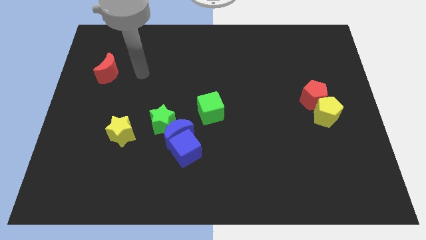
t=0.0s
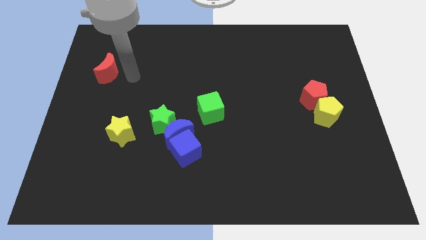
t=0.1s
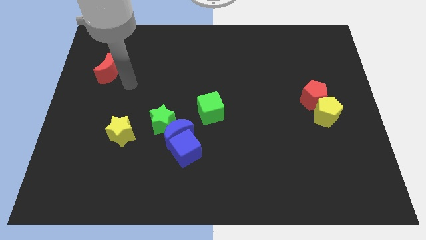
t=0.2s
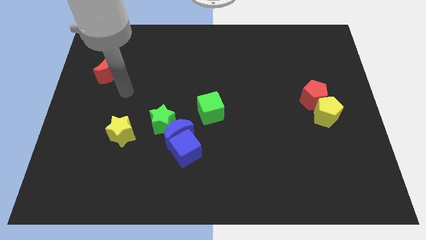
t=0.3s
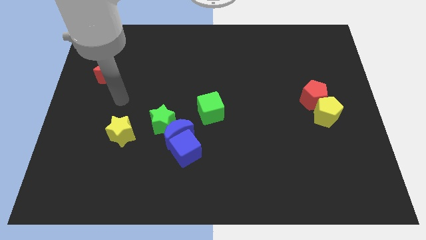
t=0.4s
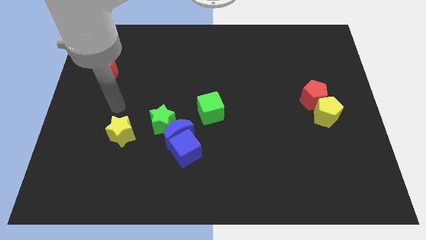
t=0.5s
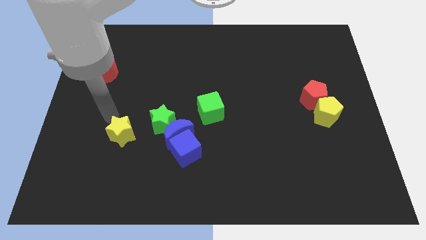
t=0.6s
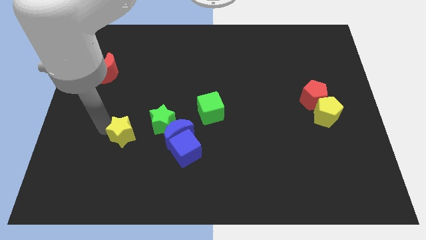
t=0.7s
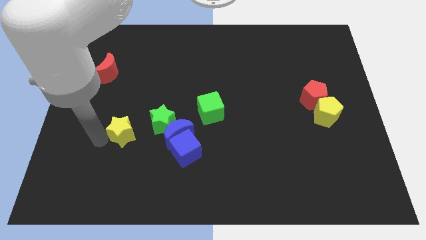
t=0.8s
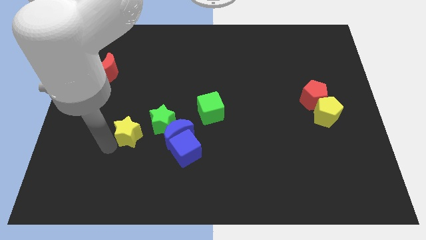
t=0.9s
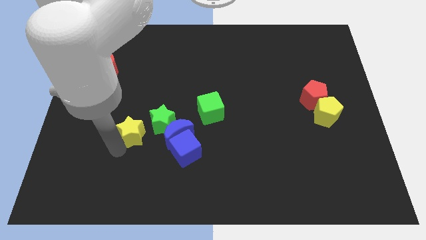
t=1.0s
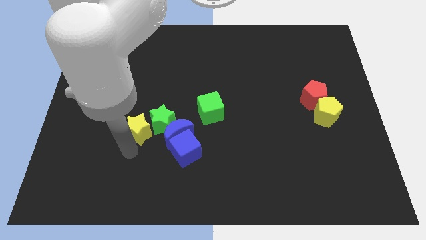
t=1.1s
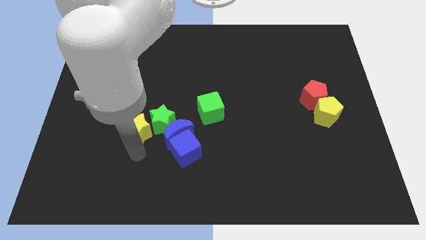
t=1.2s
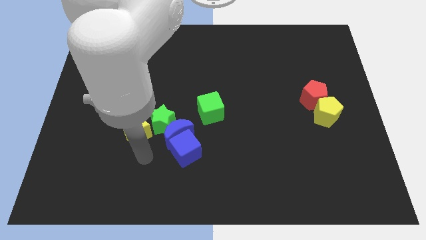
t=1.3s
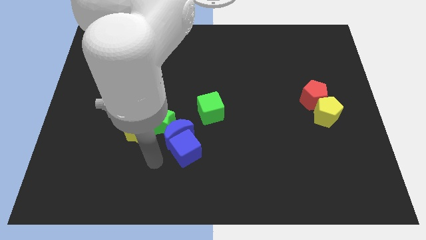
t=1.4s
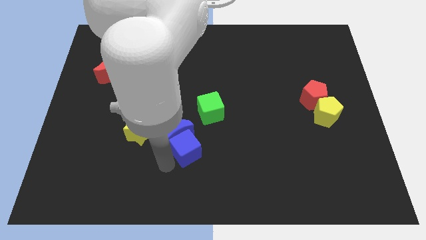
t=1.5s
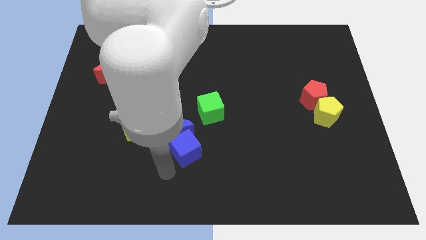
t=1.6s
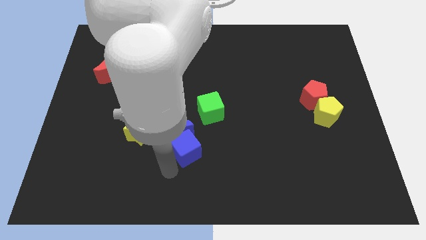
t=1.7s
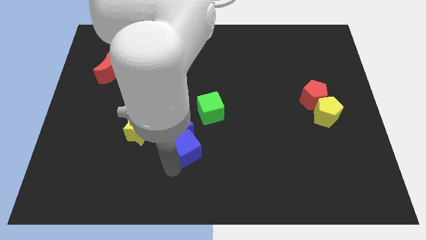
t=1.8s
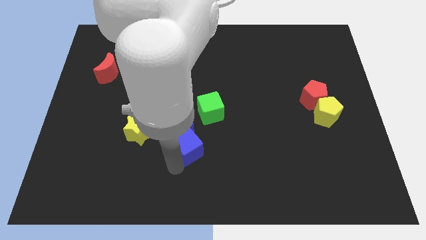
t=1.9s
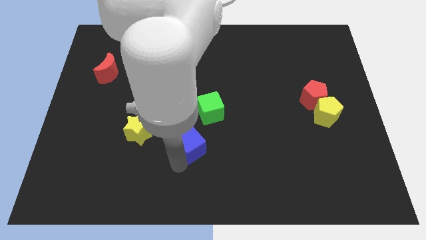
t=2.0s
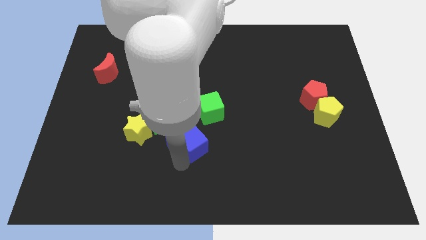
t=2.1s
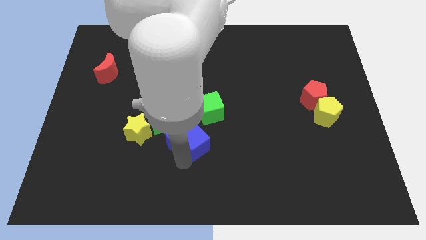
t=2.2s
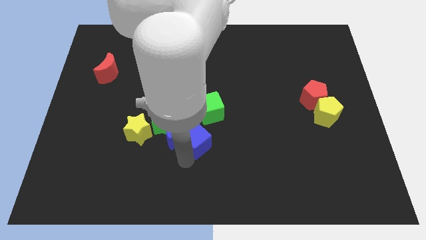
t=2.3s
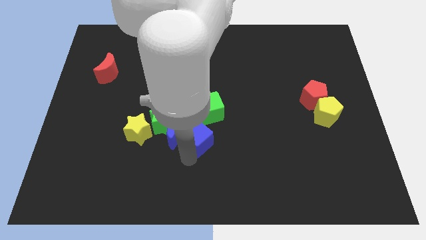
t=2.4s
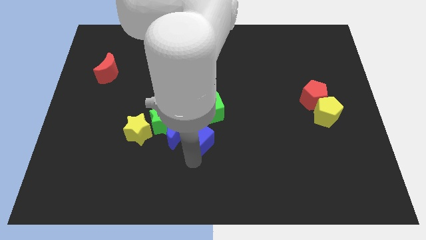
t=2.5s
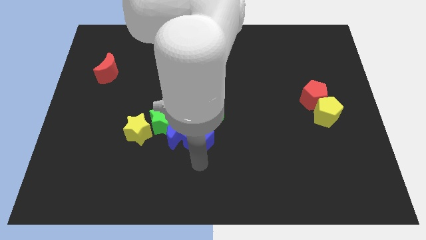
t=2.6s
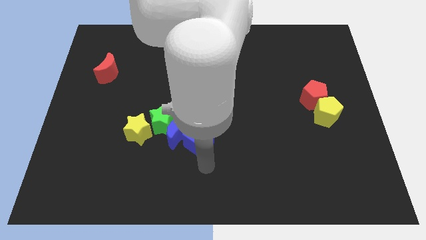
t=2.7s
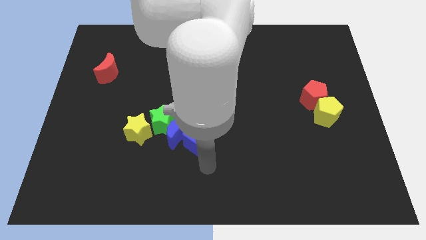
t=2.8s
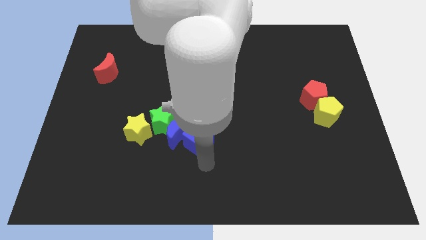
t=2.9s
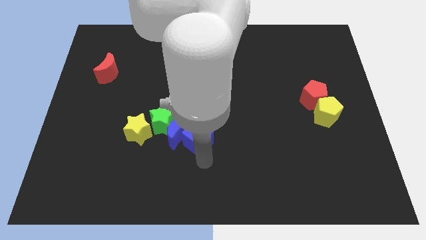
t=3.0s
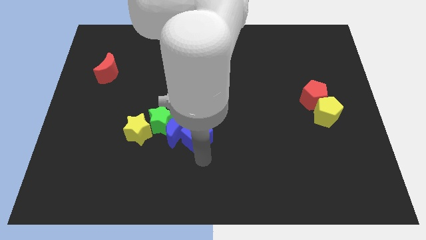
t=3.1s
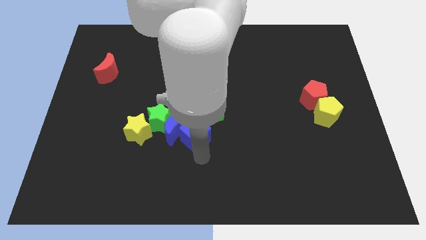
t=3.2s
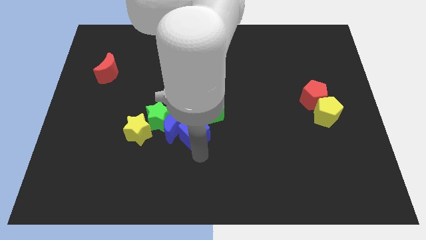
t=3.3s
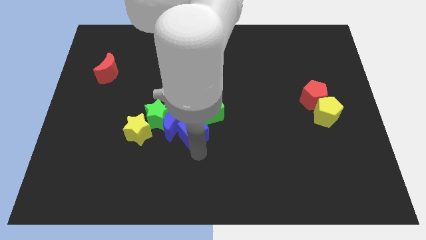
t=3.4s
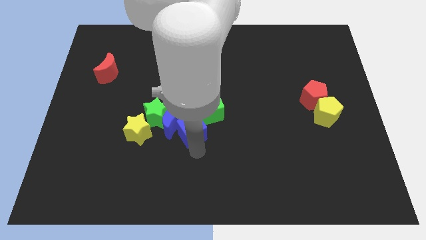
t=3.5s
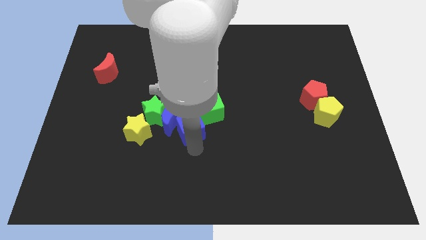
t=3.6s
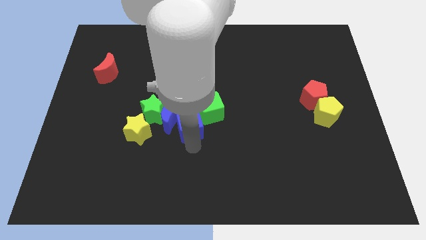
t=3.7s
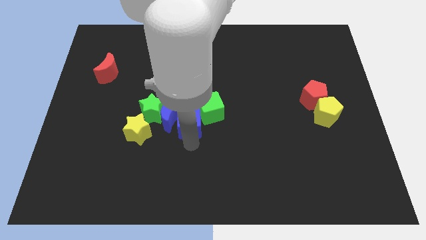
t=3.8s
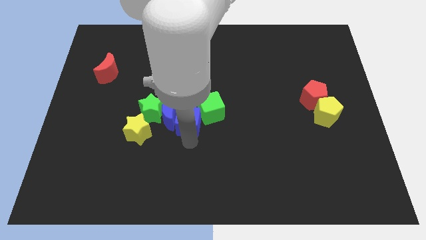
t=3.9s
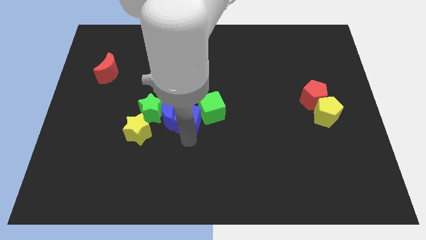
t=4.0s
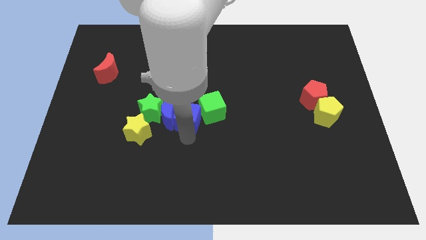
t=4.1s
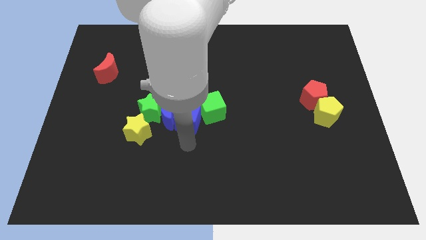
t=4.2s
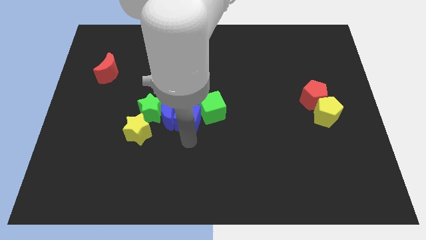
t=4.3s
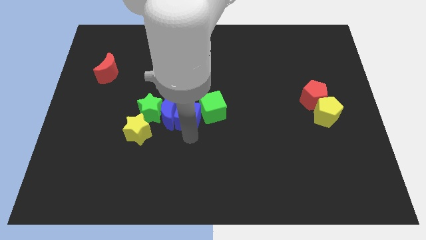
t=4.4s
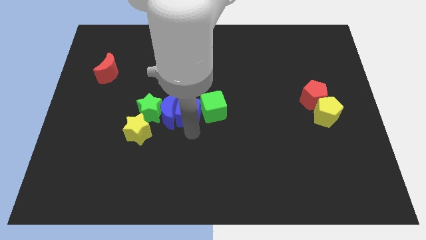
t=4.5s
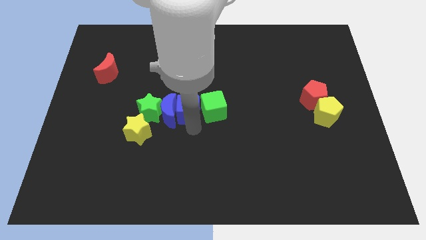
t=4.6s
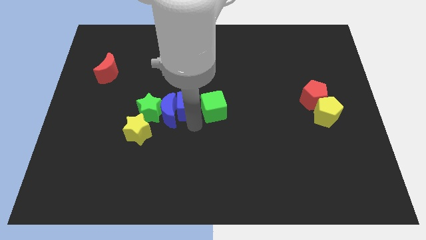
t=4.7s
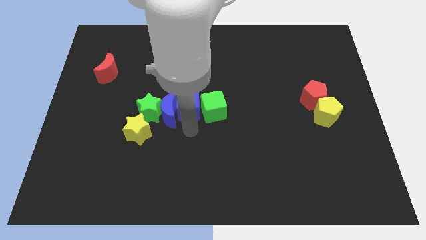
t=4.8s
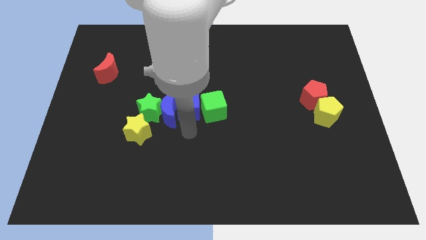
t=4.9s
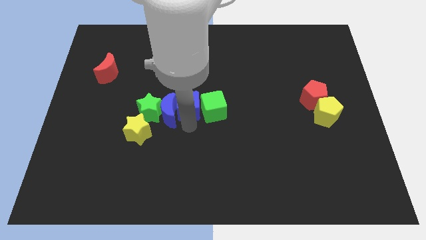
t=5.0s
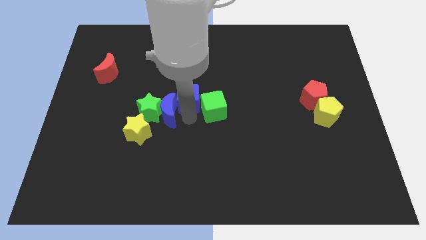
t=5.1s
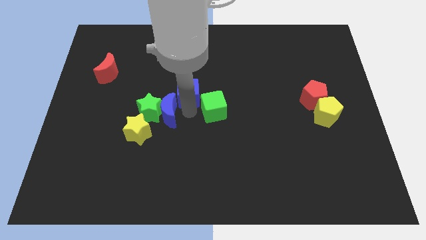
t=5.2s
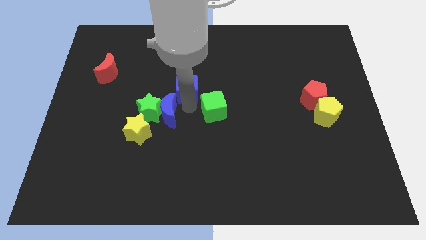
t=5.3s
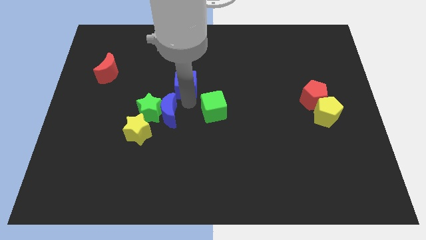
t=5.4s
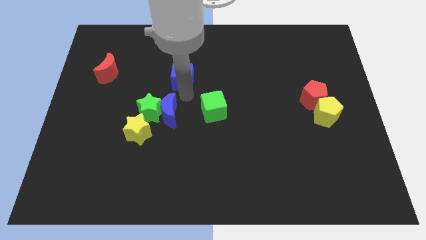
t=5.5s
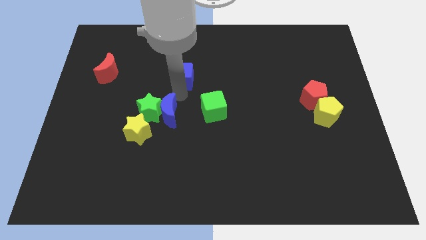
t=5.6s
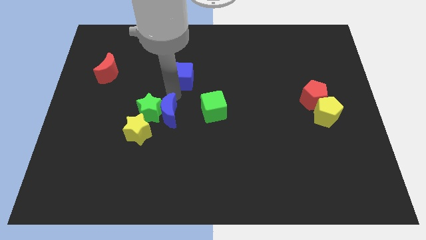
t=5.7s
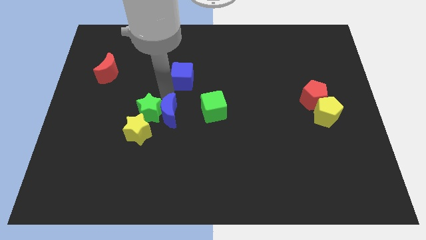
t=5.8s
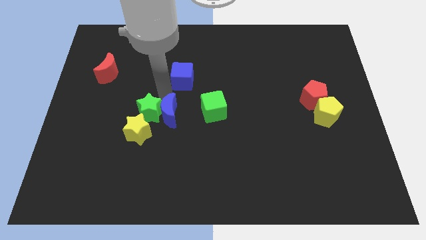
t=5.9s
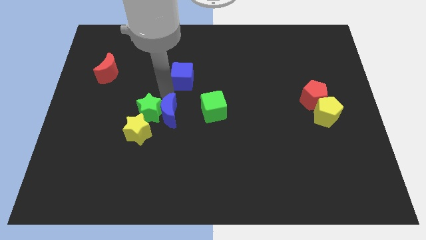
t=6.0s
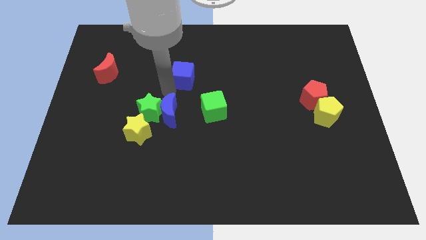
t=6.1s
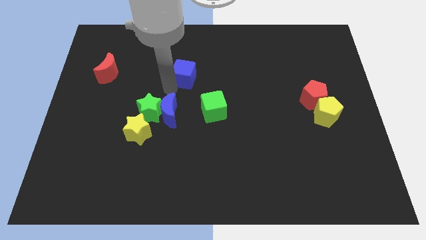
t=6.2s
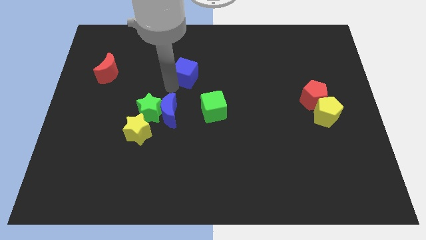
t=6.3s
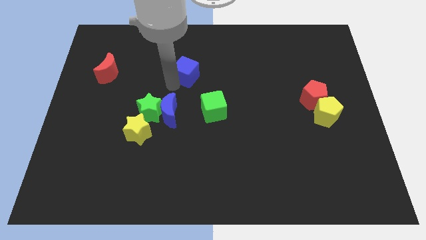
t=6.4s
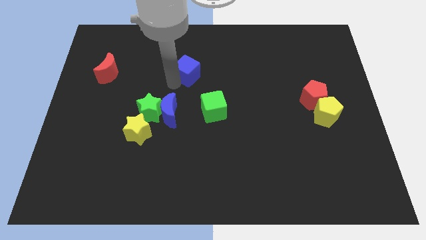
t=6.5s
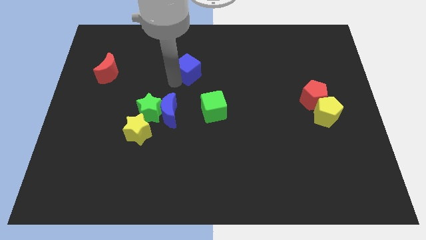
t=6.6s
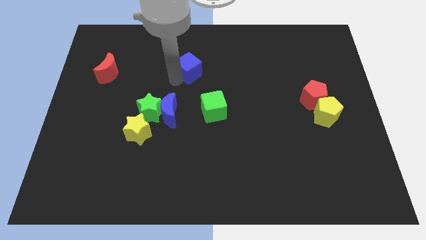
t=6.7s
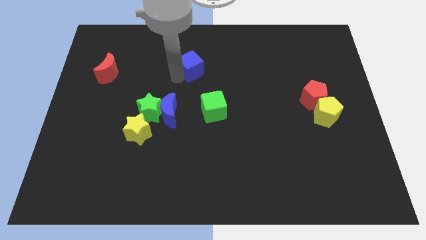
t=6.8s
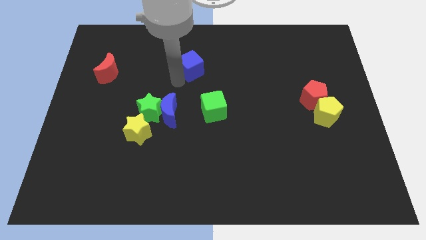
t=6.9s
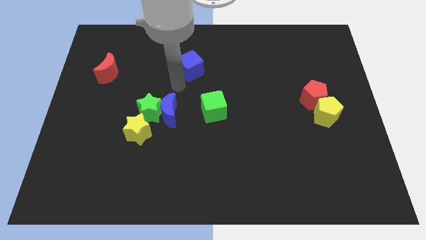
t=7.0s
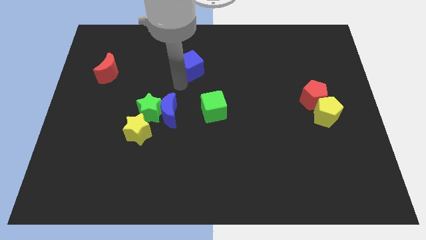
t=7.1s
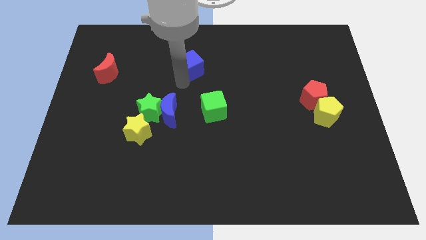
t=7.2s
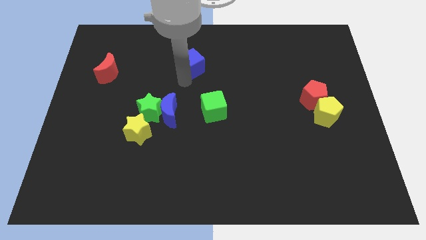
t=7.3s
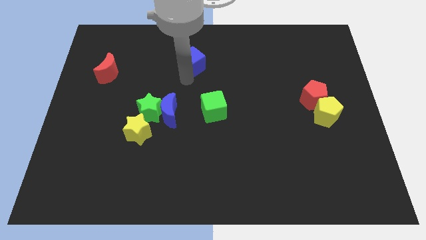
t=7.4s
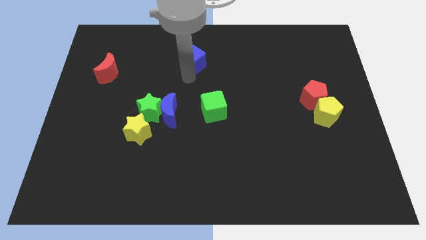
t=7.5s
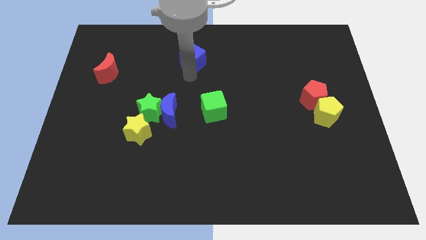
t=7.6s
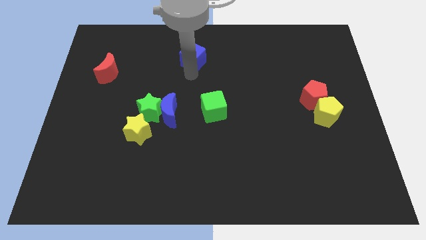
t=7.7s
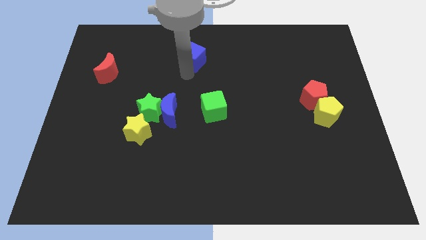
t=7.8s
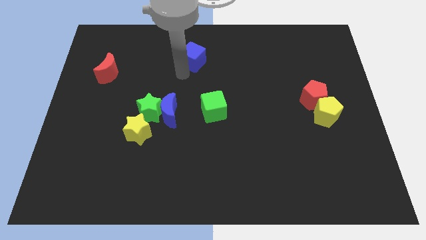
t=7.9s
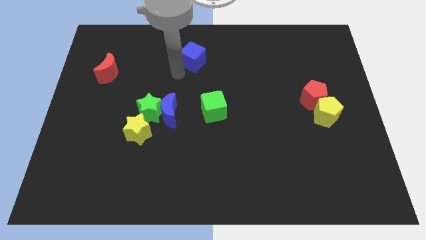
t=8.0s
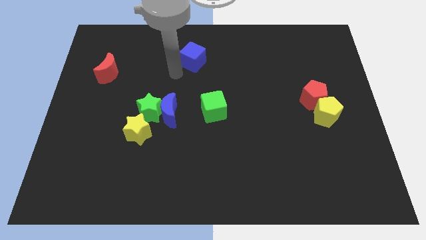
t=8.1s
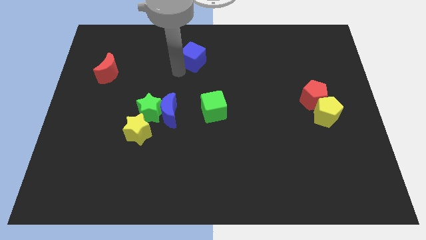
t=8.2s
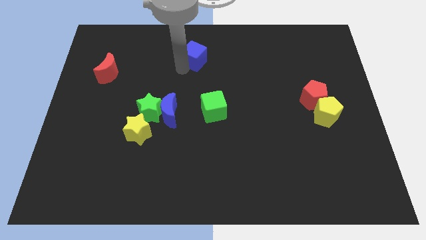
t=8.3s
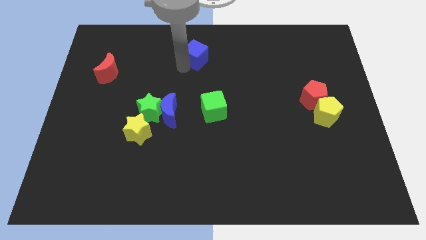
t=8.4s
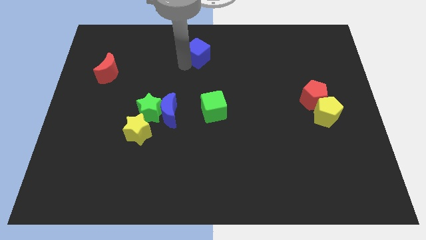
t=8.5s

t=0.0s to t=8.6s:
push the blue cube to the top
